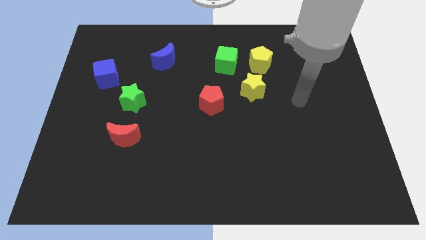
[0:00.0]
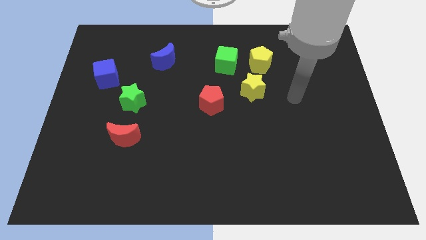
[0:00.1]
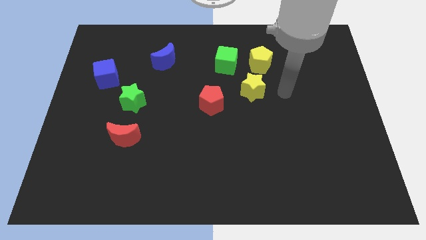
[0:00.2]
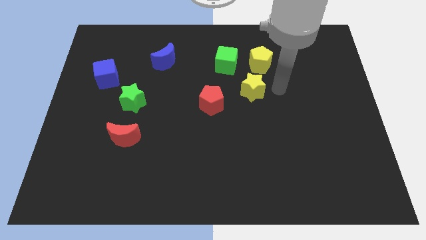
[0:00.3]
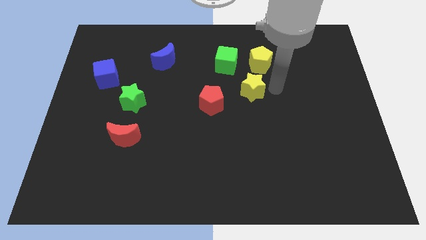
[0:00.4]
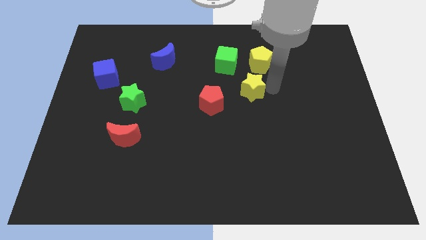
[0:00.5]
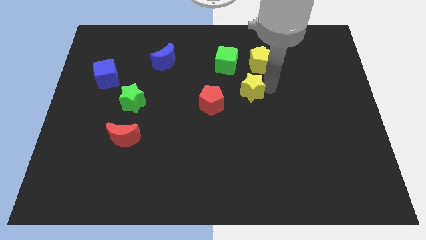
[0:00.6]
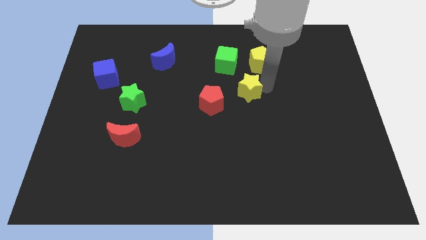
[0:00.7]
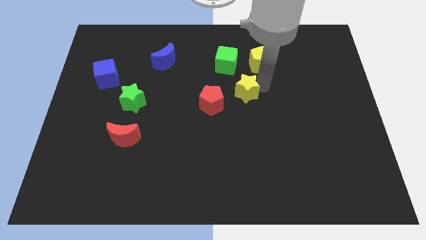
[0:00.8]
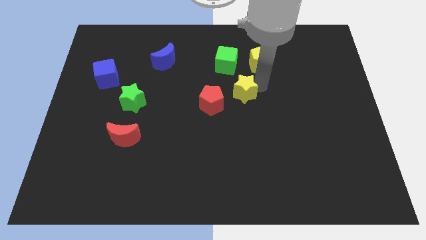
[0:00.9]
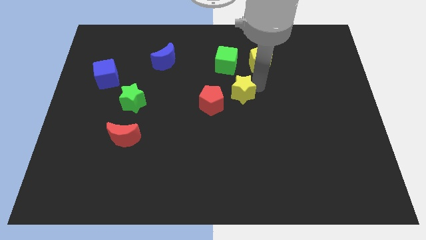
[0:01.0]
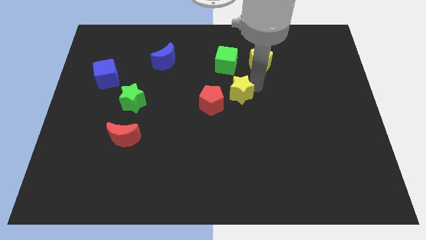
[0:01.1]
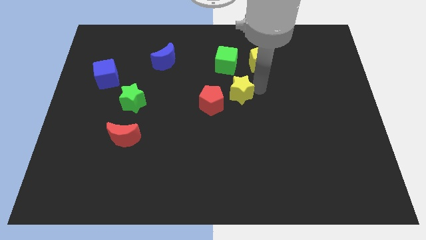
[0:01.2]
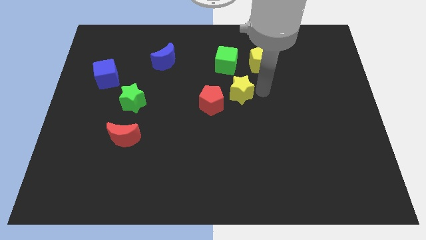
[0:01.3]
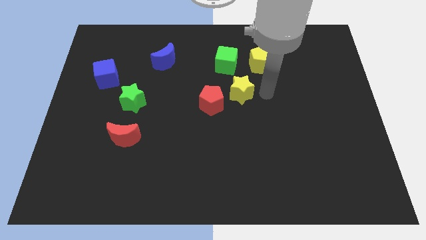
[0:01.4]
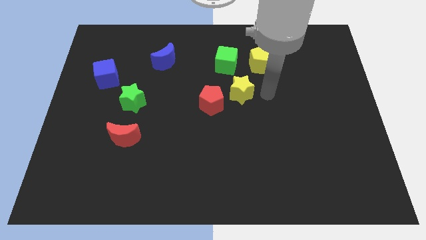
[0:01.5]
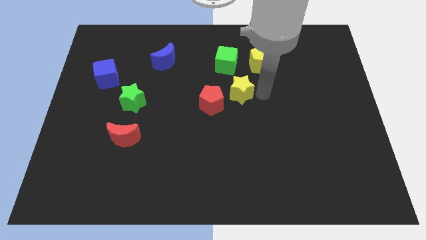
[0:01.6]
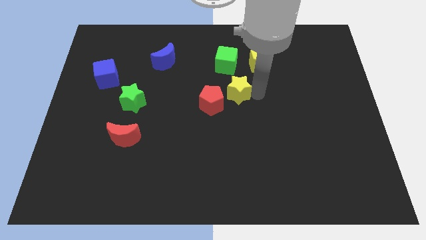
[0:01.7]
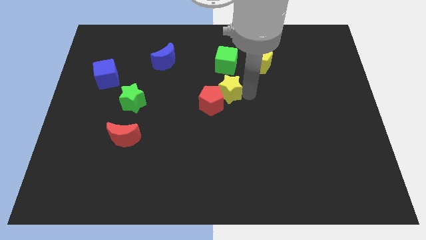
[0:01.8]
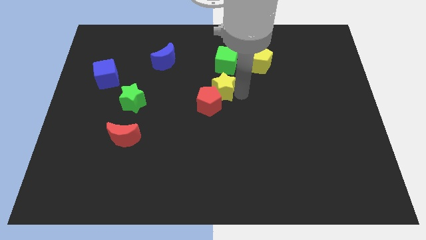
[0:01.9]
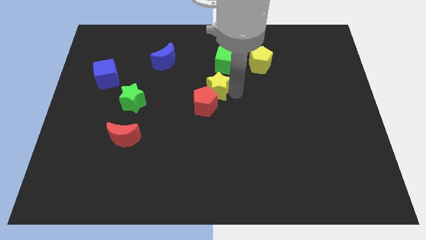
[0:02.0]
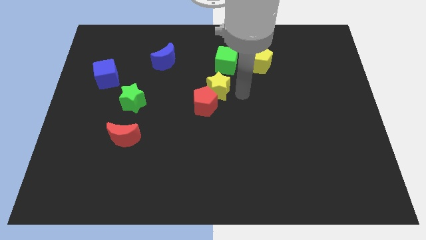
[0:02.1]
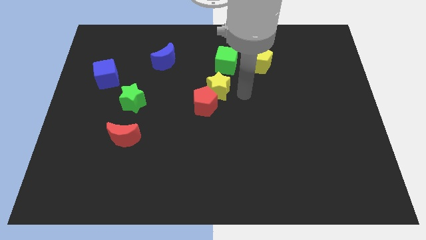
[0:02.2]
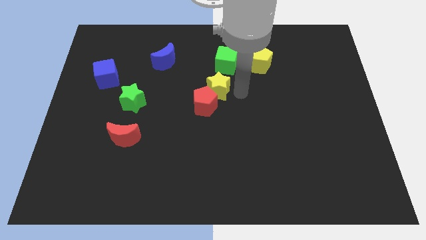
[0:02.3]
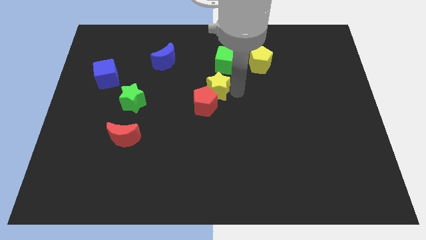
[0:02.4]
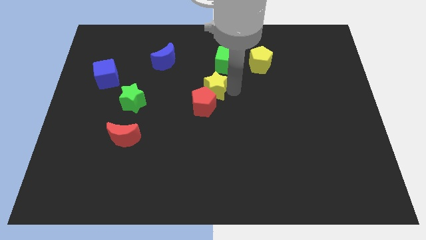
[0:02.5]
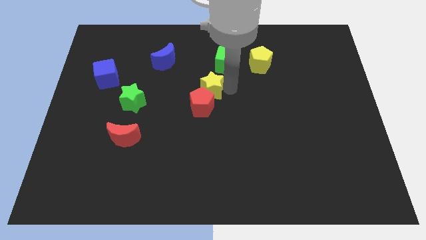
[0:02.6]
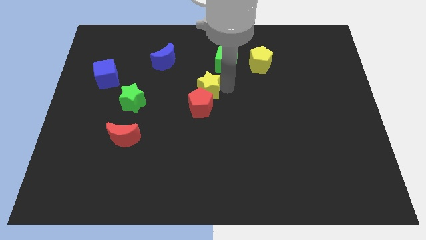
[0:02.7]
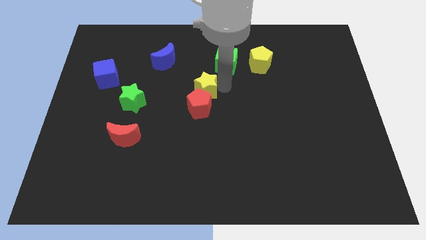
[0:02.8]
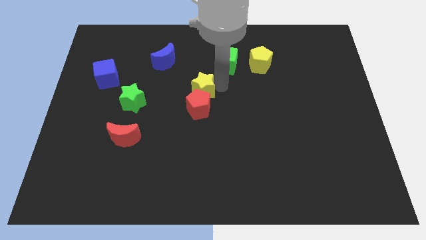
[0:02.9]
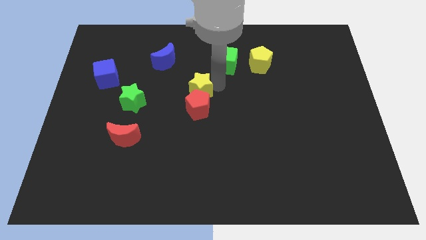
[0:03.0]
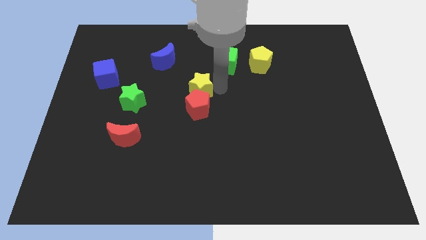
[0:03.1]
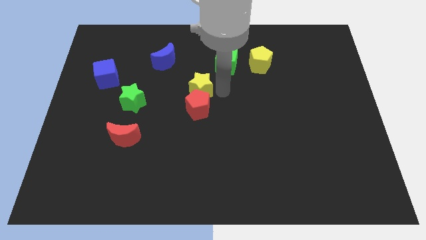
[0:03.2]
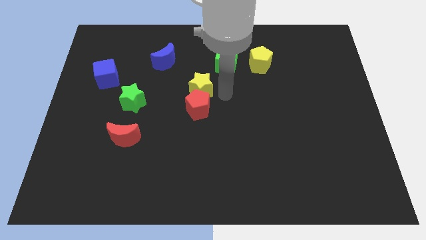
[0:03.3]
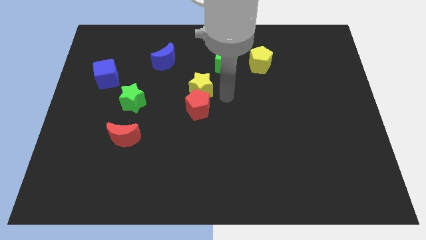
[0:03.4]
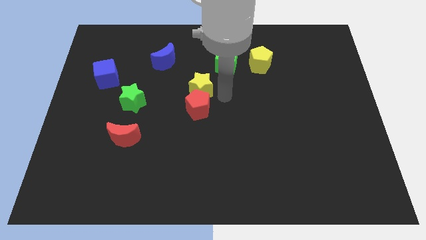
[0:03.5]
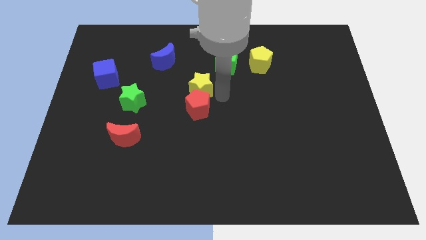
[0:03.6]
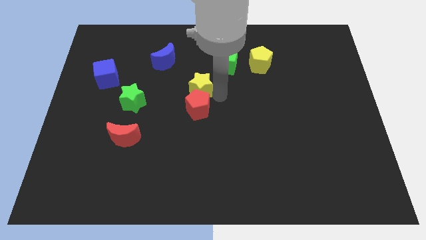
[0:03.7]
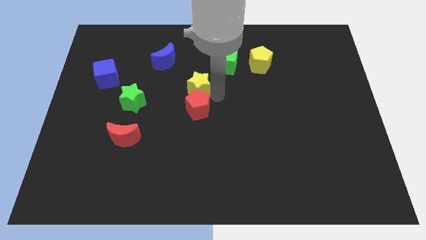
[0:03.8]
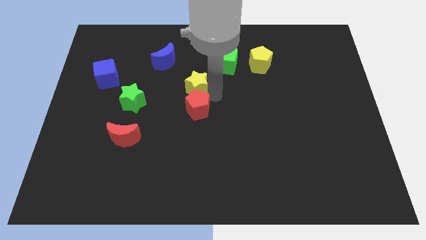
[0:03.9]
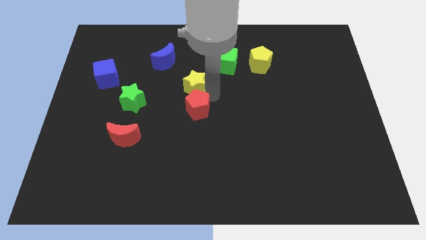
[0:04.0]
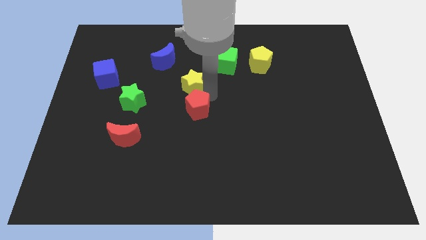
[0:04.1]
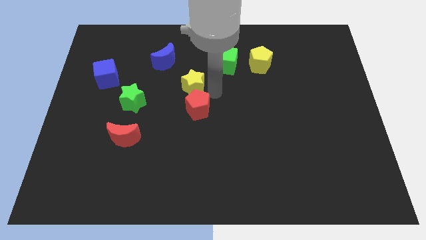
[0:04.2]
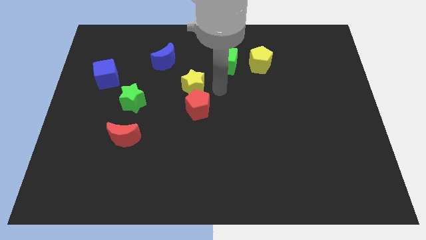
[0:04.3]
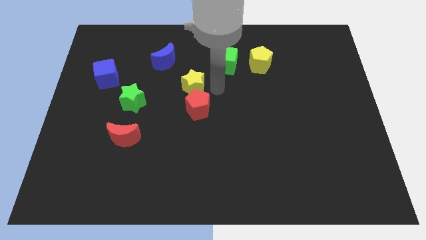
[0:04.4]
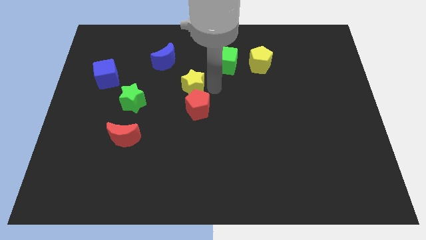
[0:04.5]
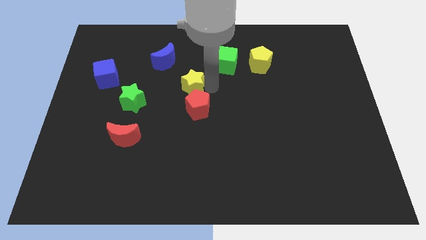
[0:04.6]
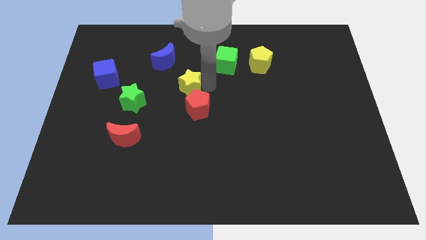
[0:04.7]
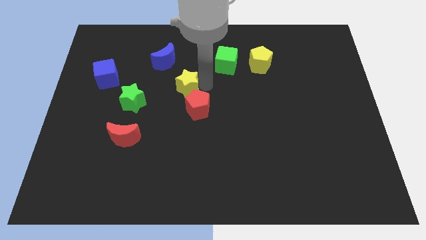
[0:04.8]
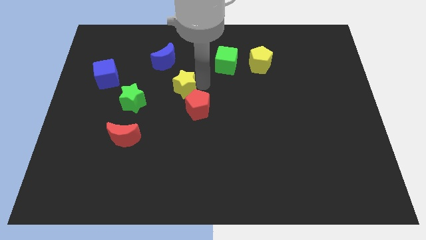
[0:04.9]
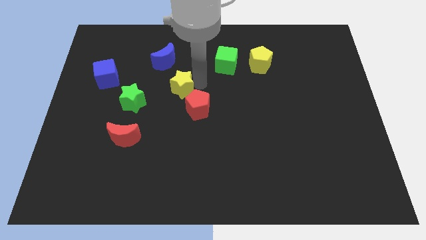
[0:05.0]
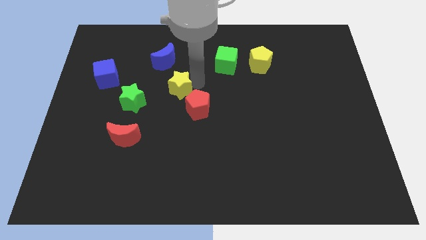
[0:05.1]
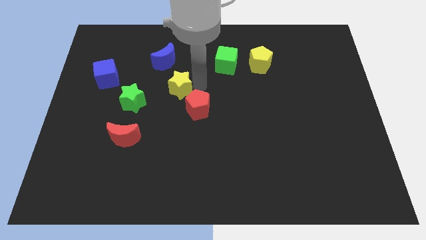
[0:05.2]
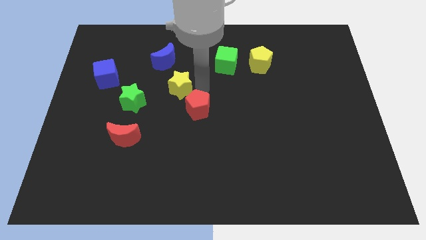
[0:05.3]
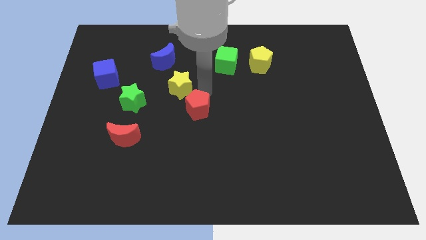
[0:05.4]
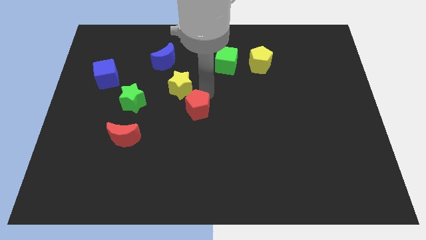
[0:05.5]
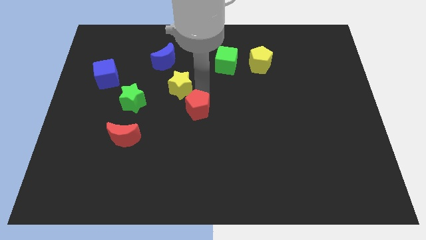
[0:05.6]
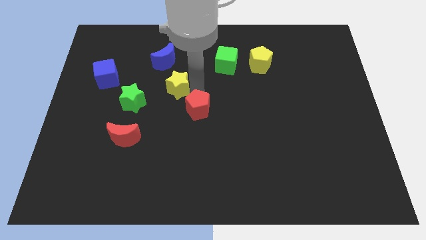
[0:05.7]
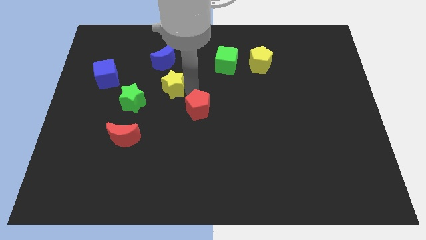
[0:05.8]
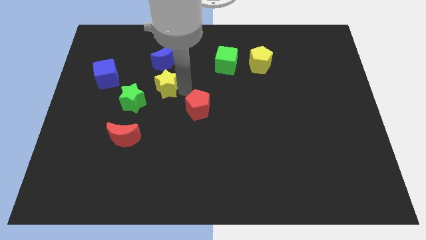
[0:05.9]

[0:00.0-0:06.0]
move the yellow star left

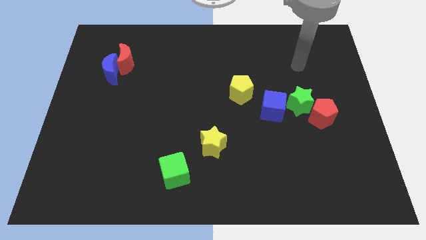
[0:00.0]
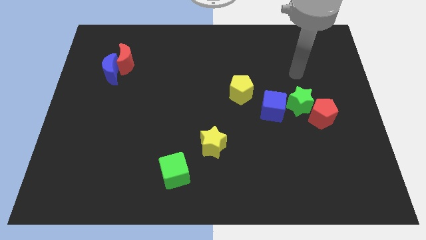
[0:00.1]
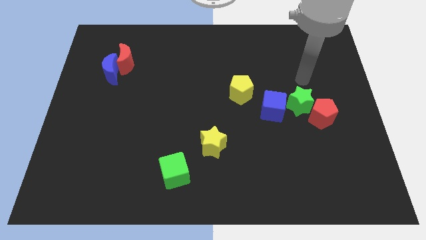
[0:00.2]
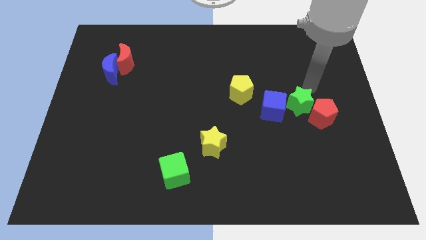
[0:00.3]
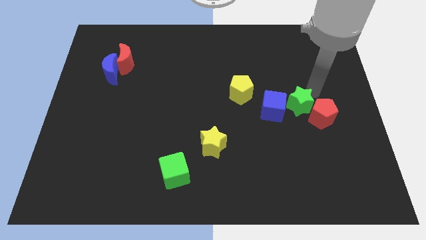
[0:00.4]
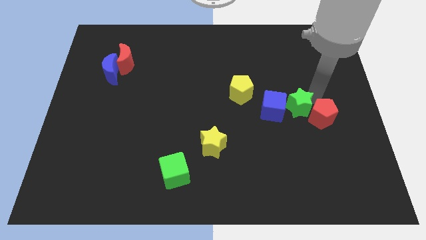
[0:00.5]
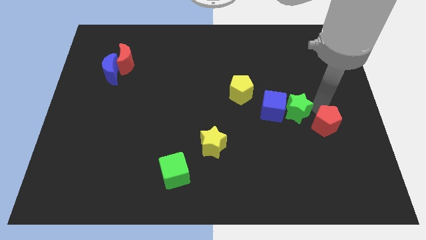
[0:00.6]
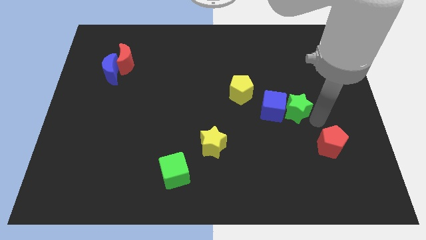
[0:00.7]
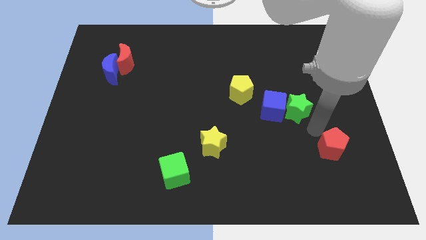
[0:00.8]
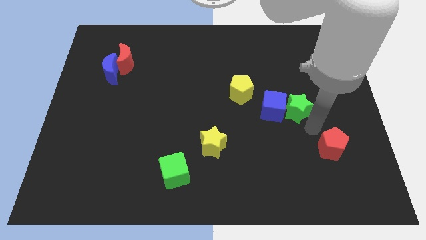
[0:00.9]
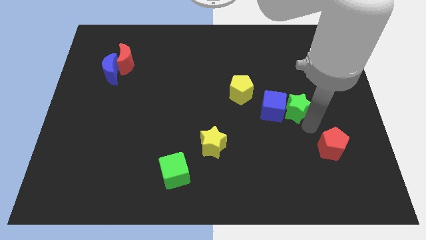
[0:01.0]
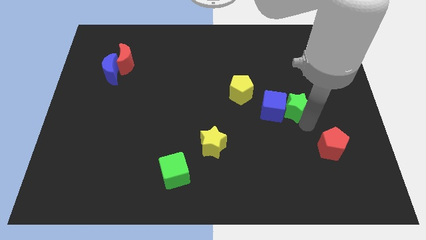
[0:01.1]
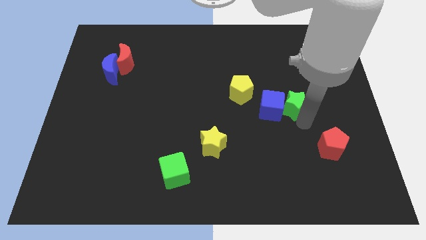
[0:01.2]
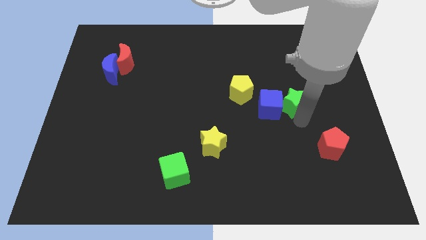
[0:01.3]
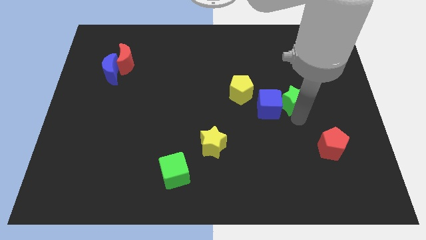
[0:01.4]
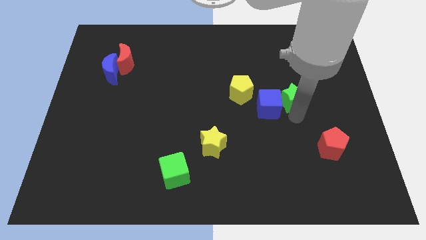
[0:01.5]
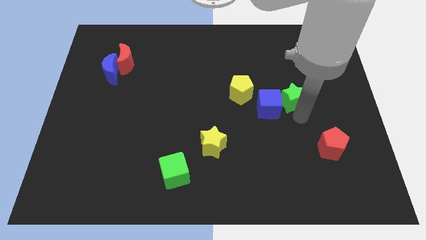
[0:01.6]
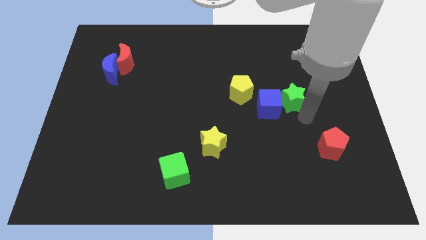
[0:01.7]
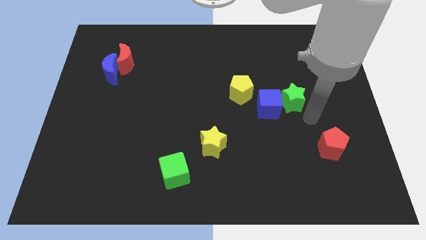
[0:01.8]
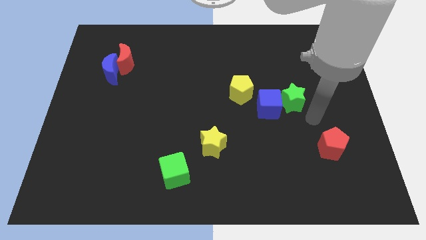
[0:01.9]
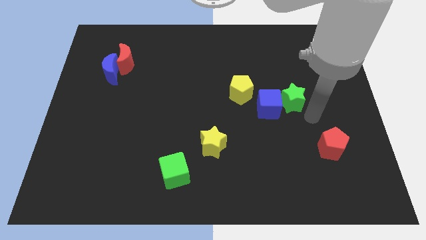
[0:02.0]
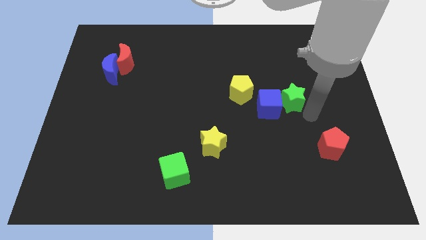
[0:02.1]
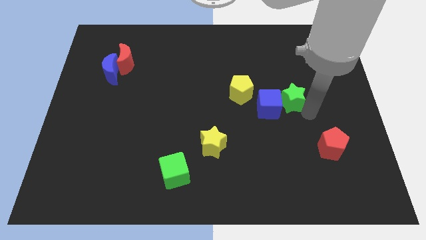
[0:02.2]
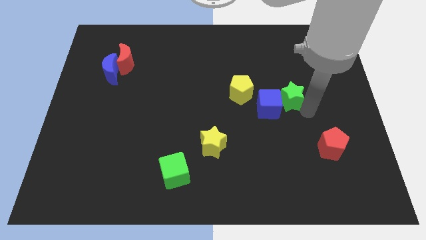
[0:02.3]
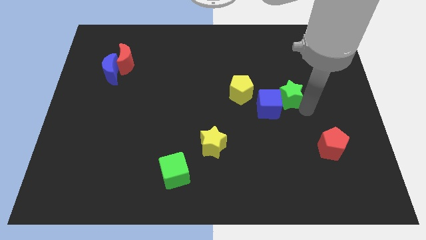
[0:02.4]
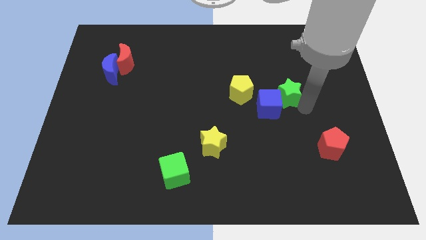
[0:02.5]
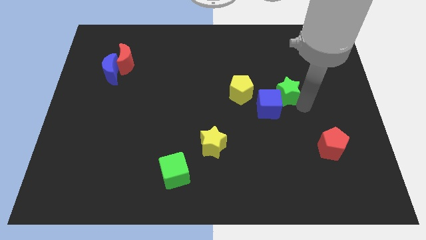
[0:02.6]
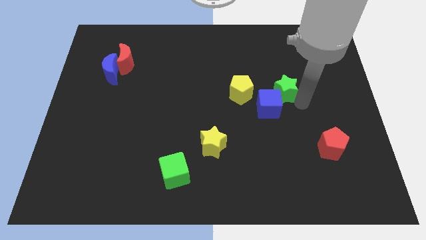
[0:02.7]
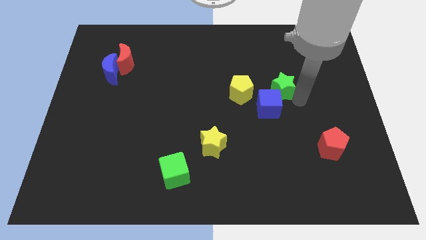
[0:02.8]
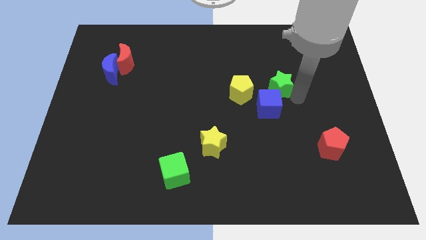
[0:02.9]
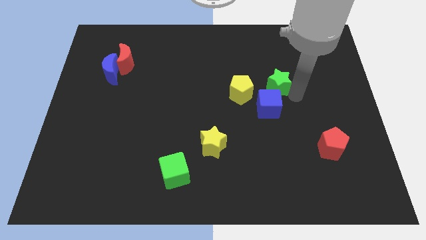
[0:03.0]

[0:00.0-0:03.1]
slide the green star upwards and left somewhat
